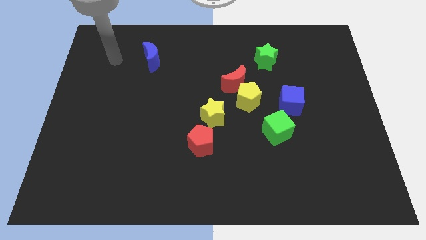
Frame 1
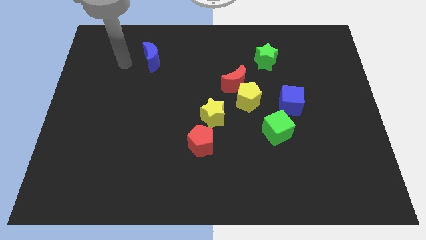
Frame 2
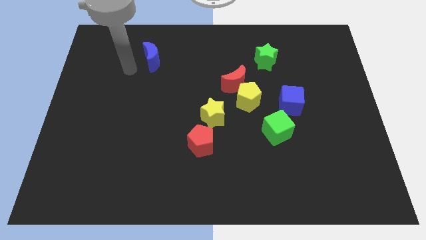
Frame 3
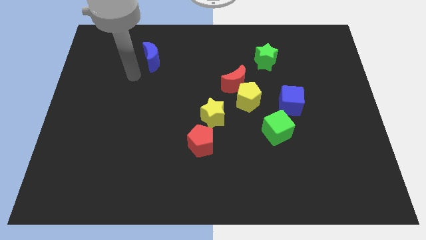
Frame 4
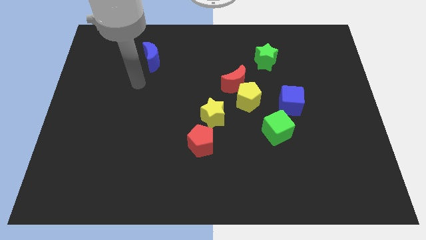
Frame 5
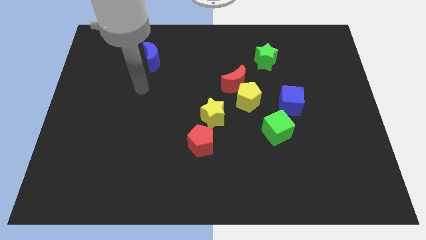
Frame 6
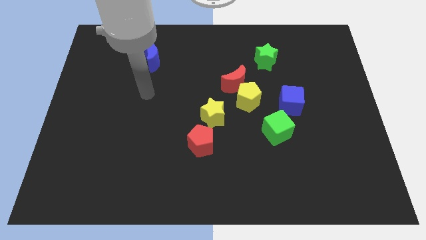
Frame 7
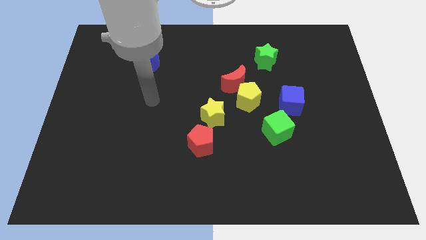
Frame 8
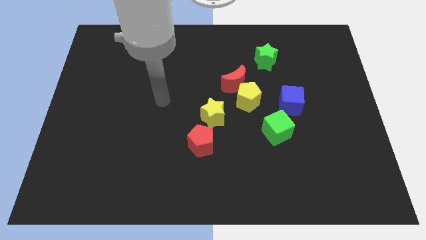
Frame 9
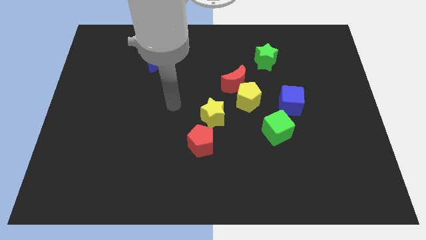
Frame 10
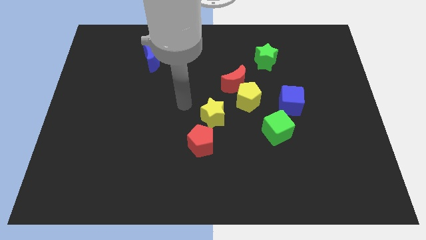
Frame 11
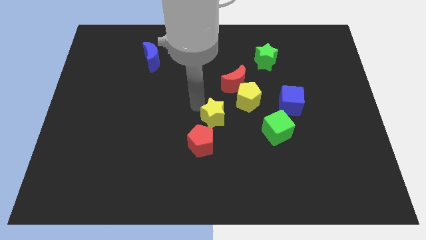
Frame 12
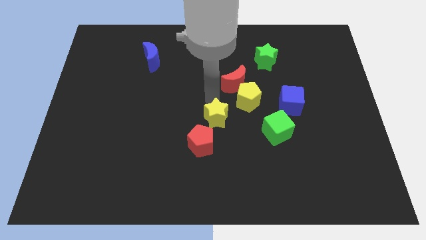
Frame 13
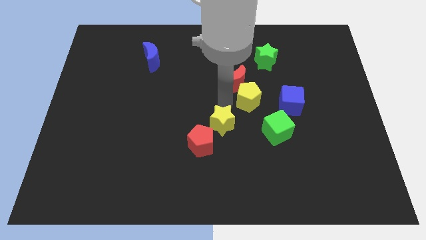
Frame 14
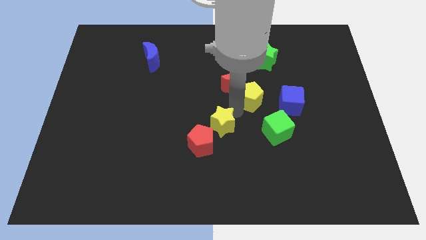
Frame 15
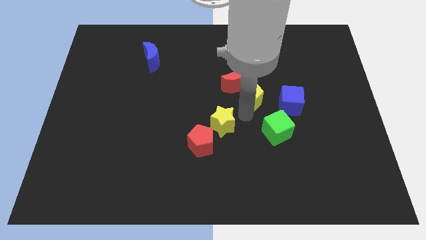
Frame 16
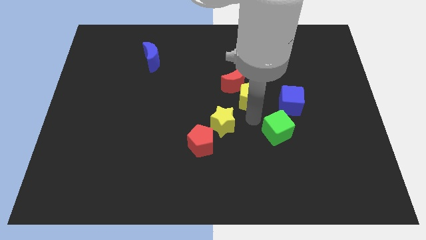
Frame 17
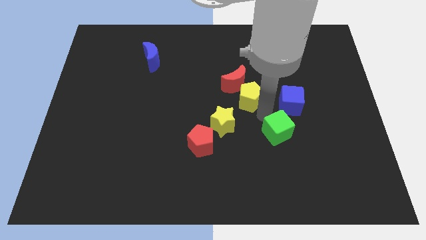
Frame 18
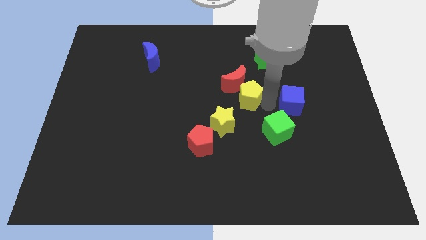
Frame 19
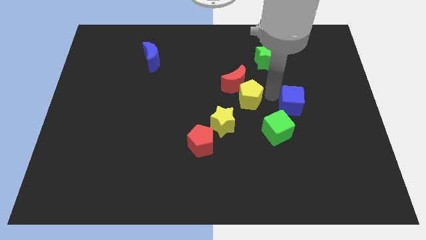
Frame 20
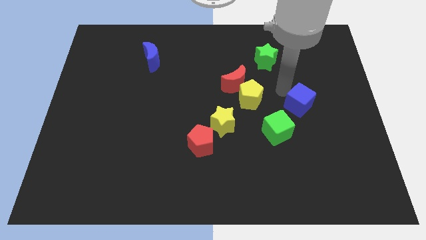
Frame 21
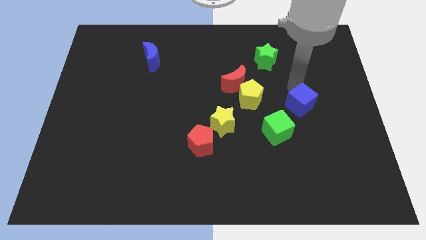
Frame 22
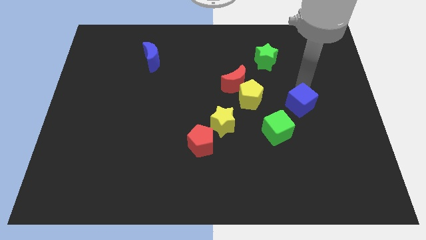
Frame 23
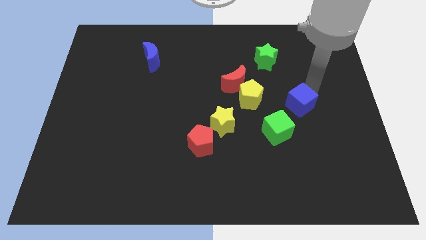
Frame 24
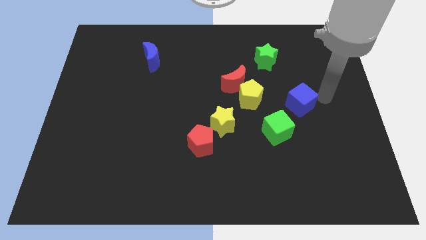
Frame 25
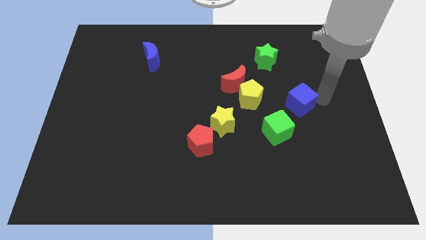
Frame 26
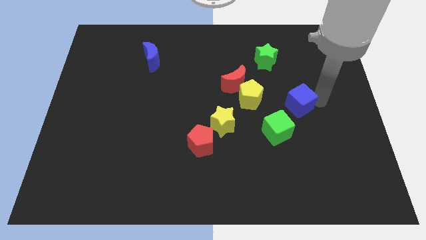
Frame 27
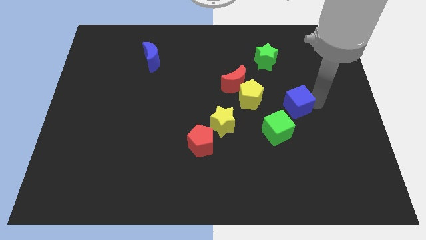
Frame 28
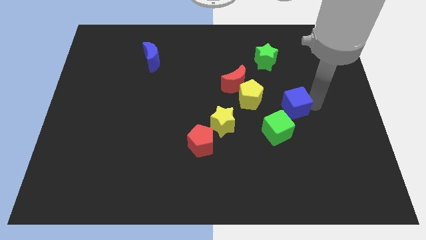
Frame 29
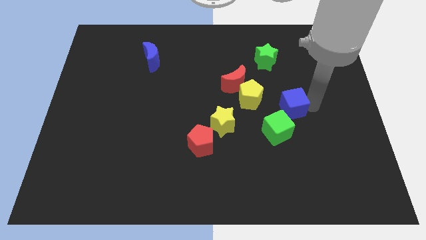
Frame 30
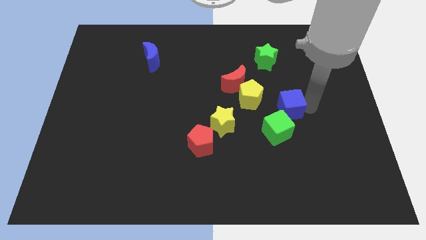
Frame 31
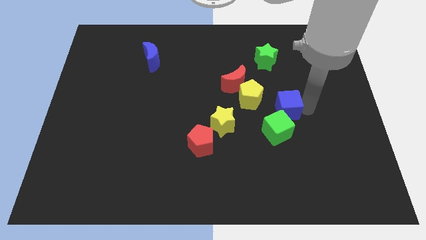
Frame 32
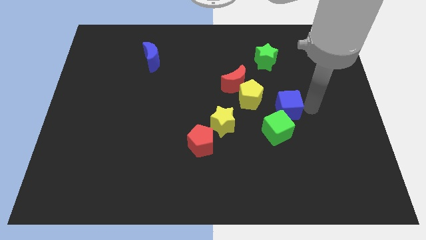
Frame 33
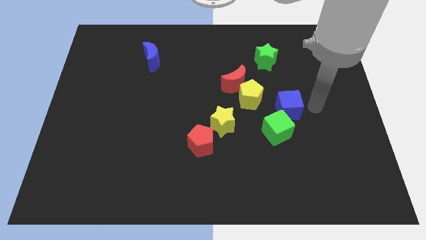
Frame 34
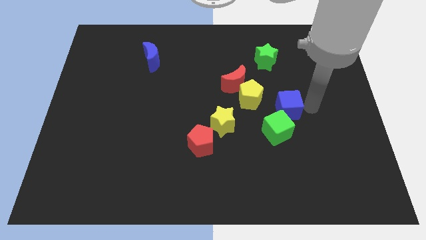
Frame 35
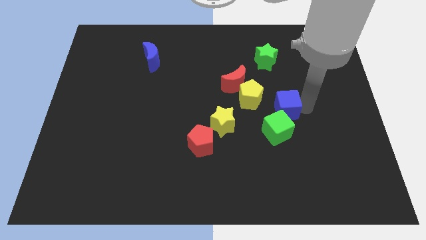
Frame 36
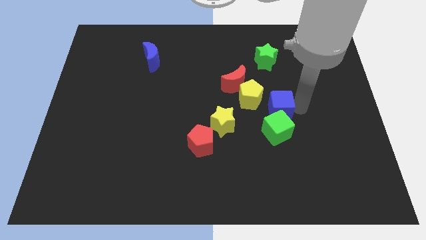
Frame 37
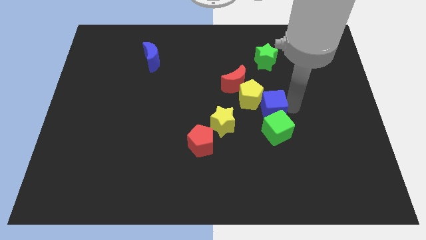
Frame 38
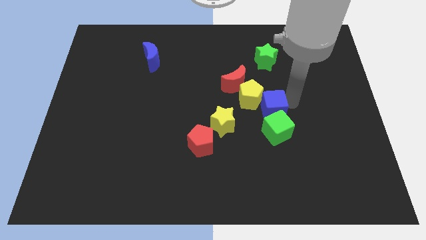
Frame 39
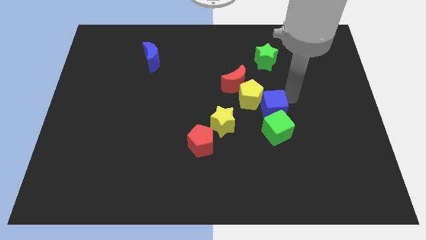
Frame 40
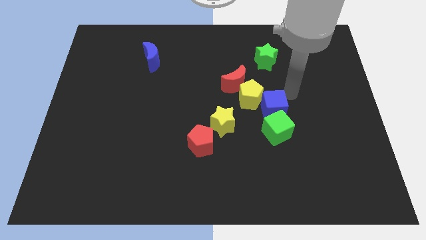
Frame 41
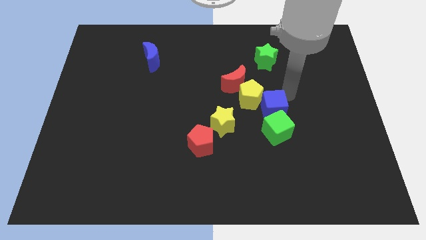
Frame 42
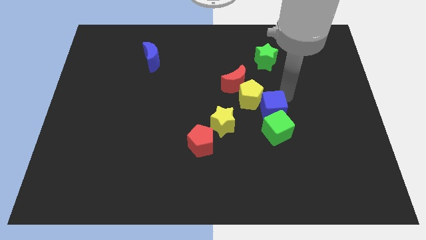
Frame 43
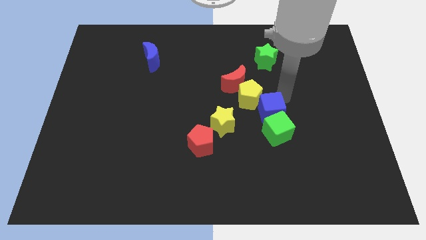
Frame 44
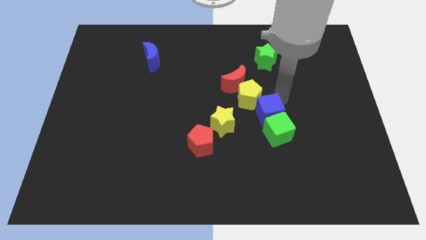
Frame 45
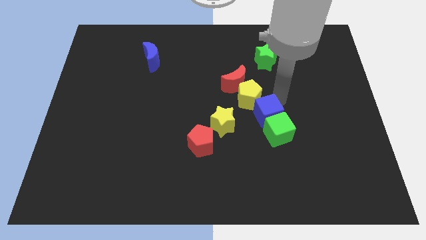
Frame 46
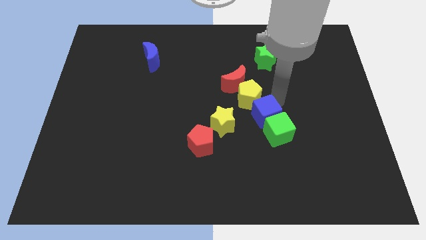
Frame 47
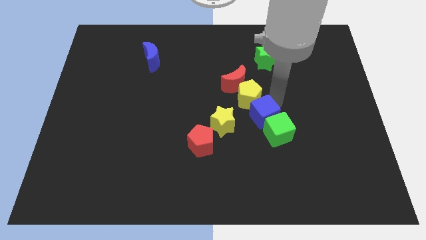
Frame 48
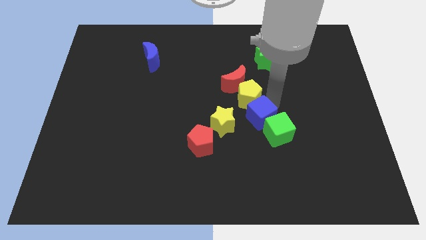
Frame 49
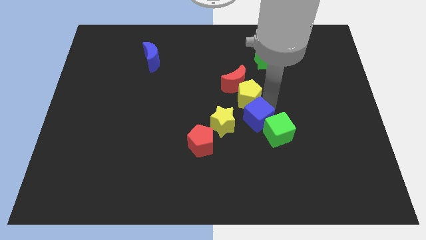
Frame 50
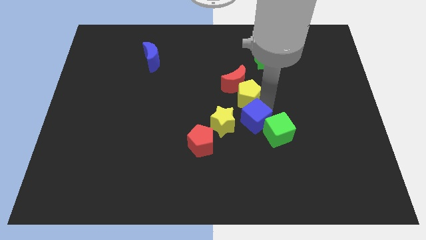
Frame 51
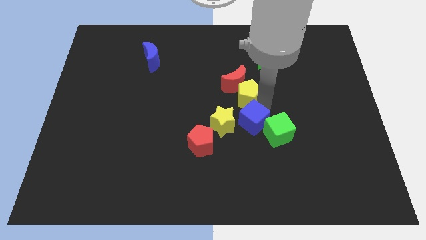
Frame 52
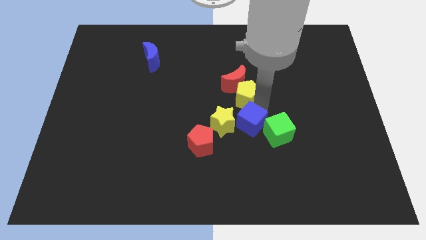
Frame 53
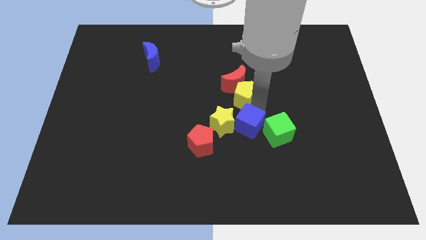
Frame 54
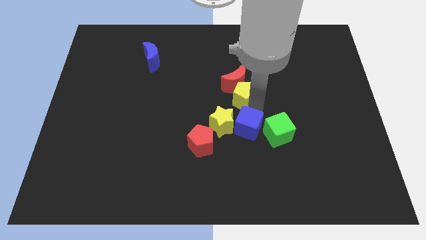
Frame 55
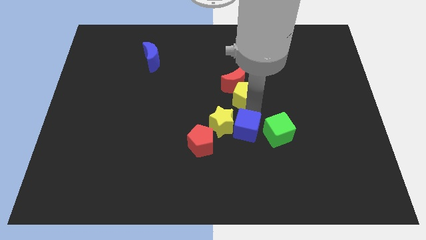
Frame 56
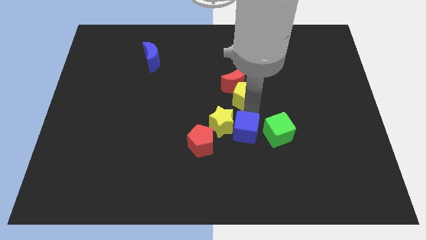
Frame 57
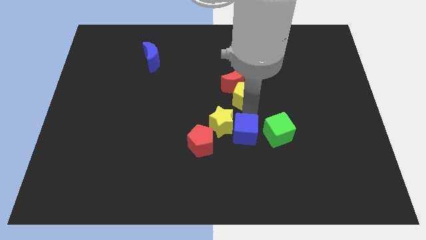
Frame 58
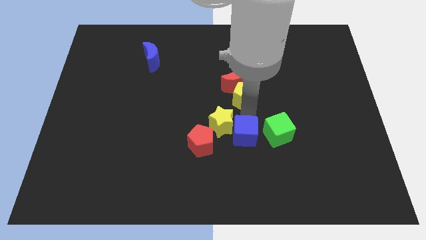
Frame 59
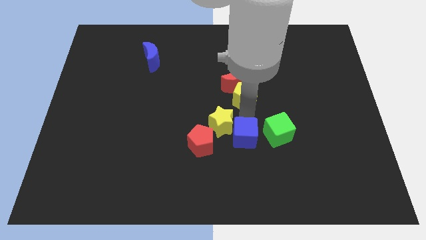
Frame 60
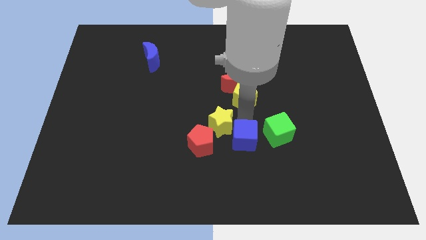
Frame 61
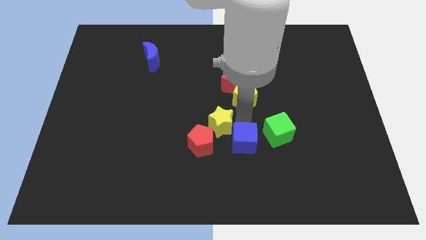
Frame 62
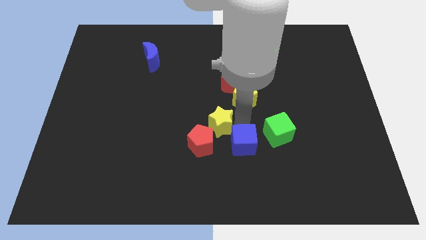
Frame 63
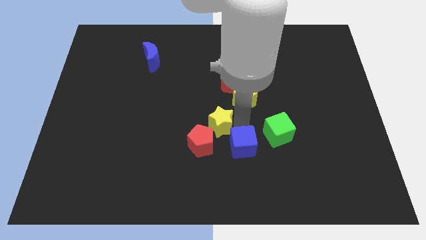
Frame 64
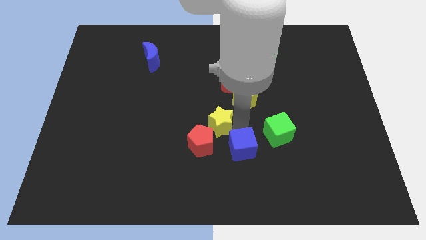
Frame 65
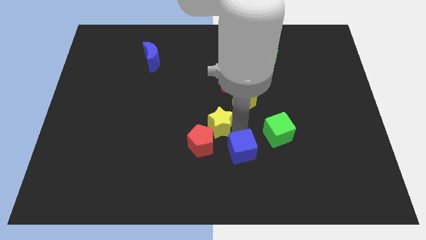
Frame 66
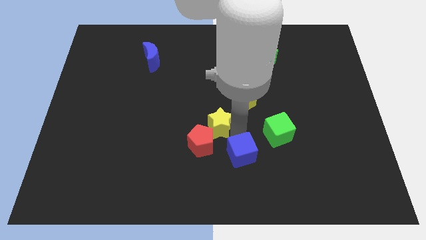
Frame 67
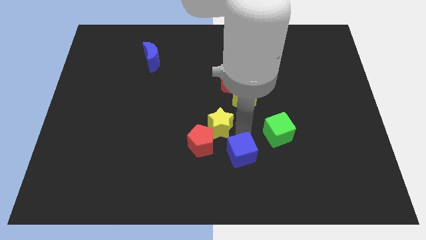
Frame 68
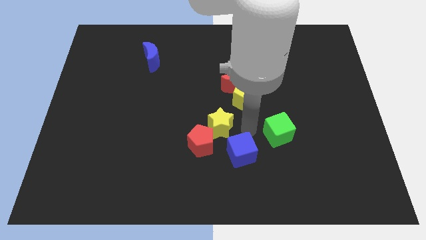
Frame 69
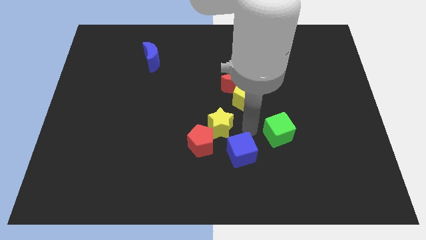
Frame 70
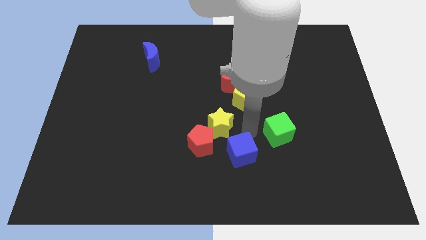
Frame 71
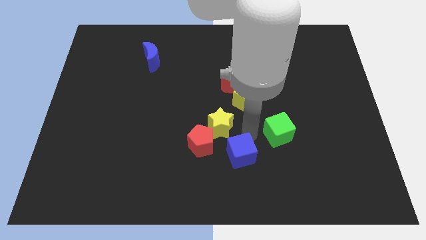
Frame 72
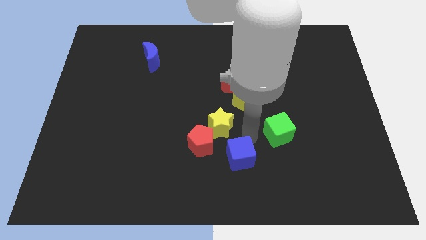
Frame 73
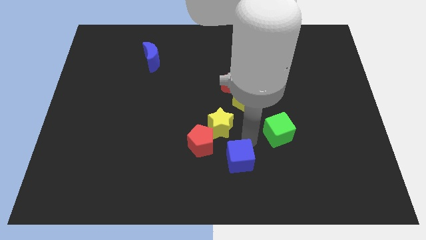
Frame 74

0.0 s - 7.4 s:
move the blue cube to the bottom
